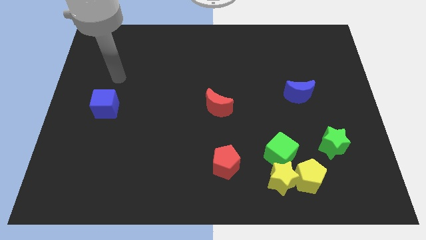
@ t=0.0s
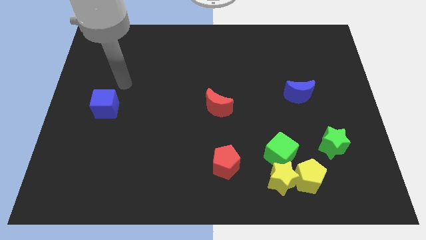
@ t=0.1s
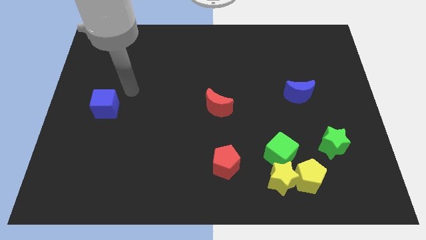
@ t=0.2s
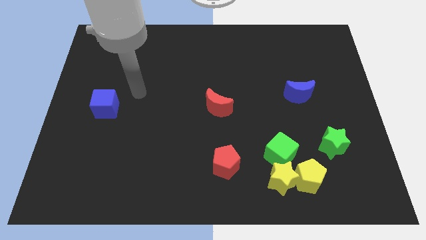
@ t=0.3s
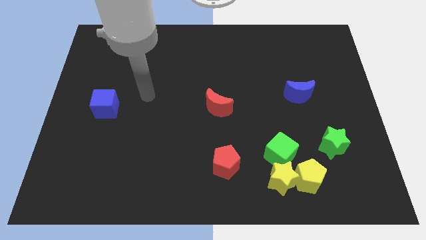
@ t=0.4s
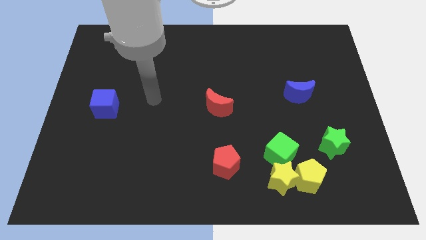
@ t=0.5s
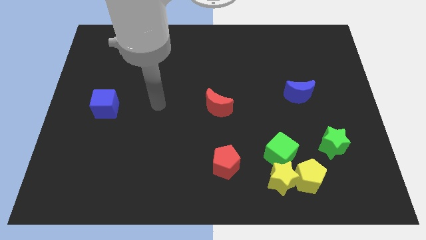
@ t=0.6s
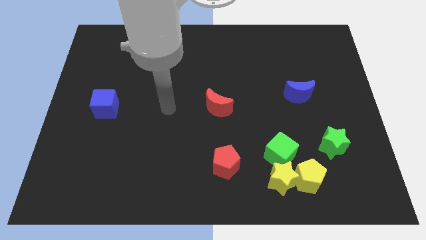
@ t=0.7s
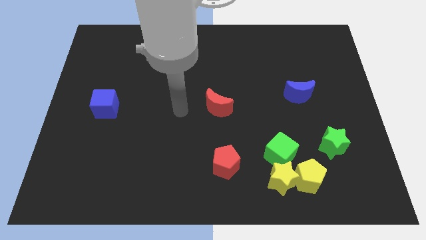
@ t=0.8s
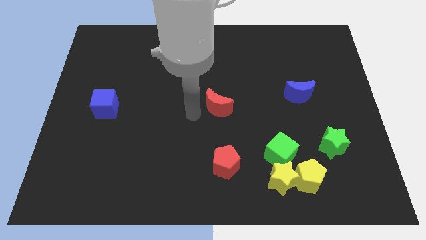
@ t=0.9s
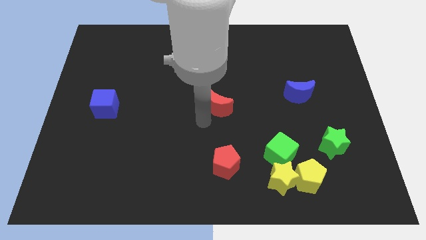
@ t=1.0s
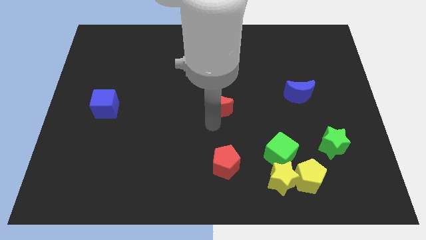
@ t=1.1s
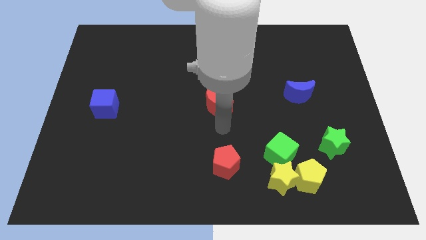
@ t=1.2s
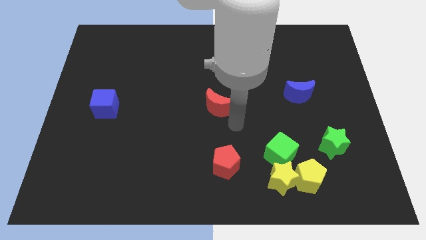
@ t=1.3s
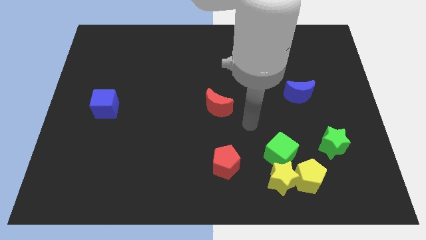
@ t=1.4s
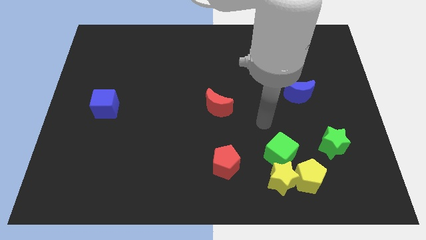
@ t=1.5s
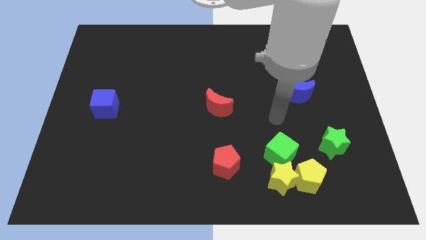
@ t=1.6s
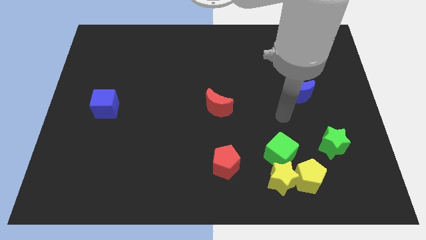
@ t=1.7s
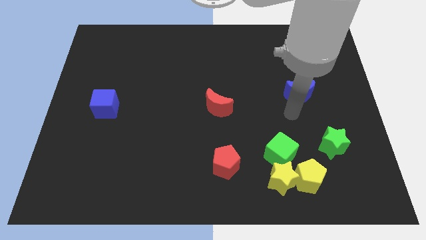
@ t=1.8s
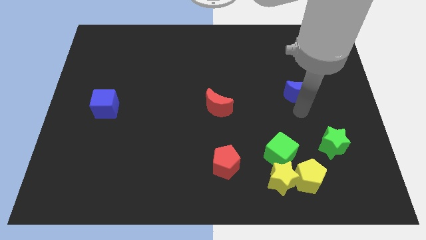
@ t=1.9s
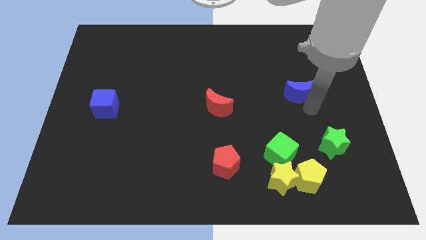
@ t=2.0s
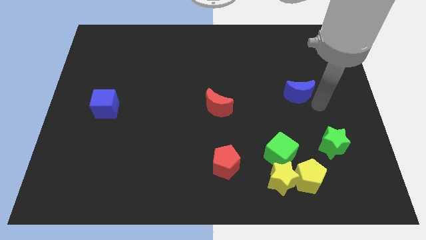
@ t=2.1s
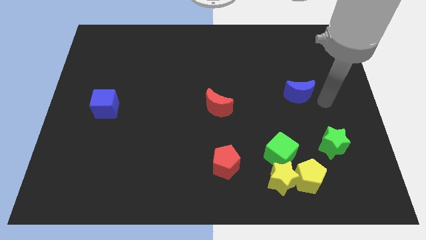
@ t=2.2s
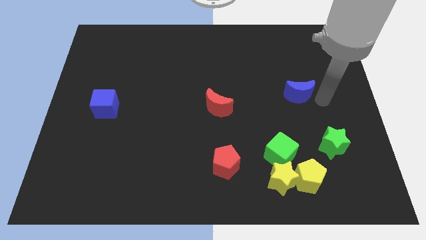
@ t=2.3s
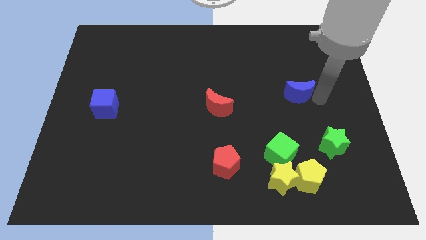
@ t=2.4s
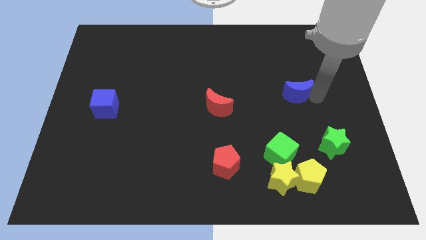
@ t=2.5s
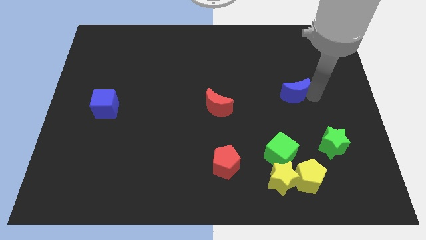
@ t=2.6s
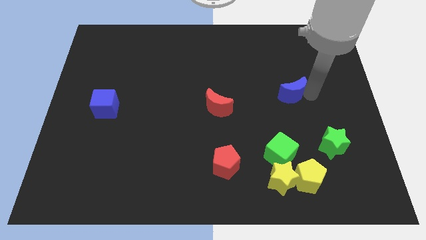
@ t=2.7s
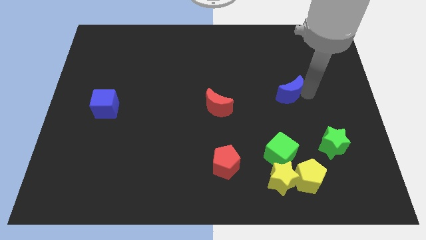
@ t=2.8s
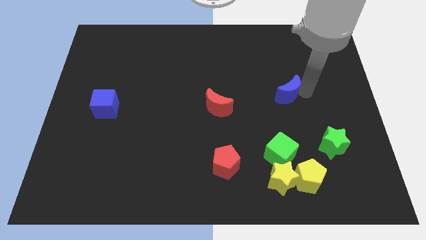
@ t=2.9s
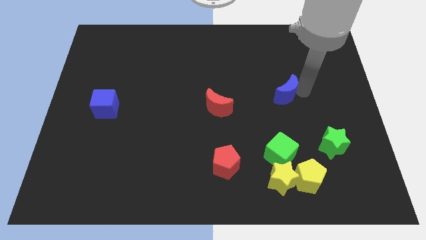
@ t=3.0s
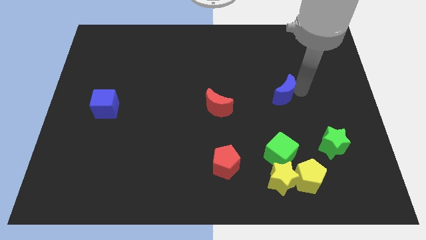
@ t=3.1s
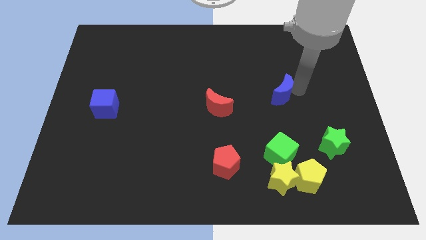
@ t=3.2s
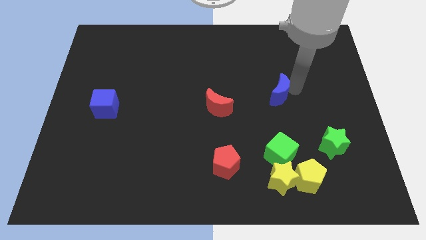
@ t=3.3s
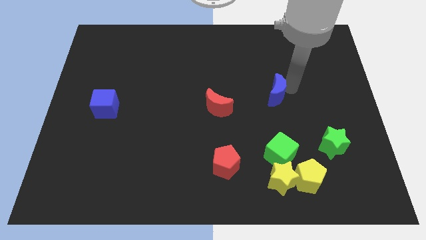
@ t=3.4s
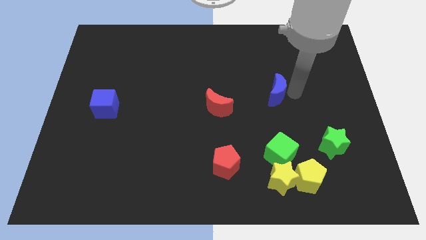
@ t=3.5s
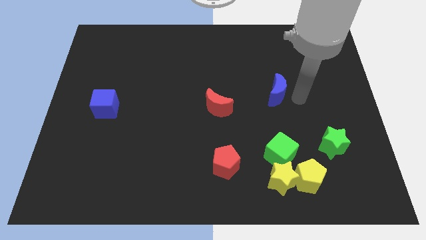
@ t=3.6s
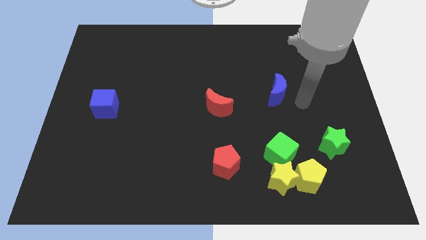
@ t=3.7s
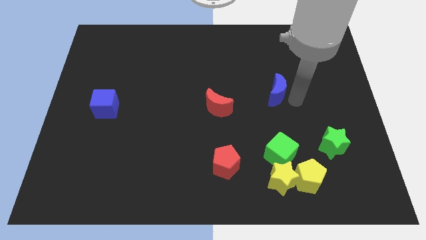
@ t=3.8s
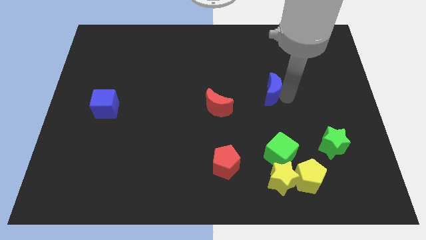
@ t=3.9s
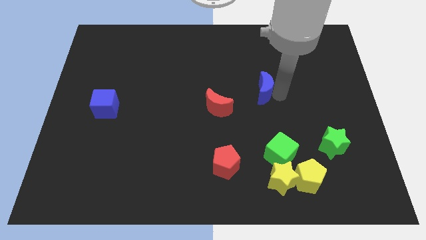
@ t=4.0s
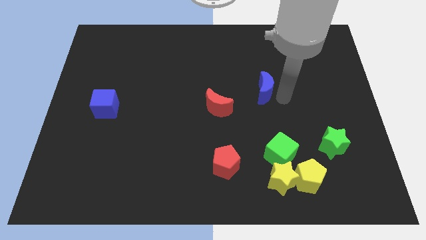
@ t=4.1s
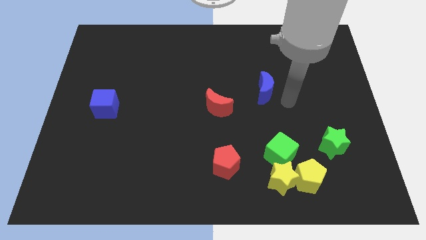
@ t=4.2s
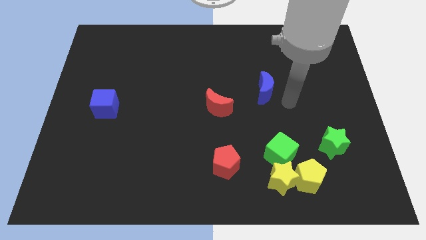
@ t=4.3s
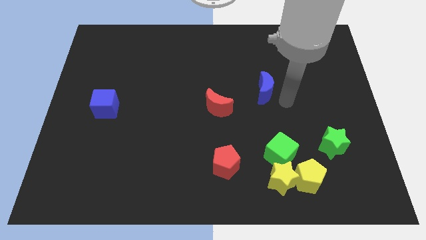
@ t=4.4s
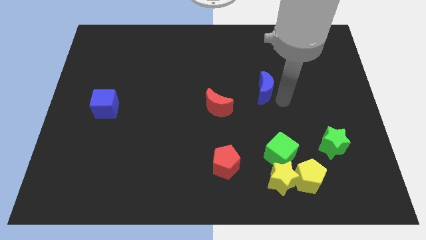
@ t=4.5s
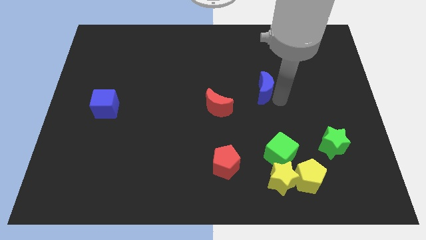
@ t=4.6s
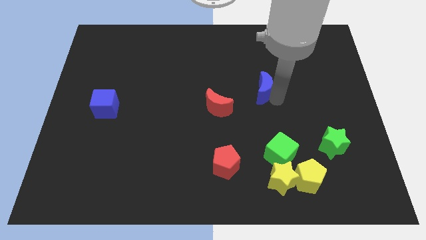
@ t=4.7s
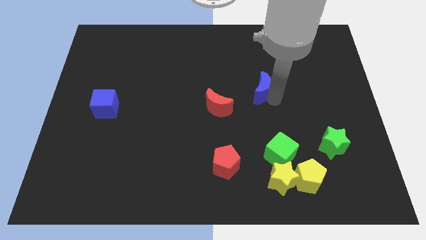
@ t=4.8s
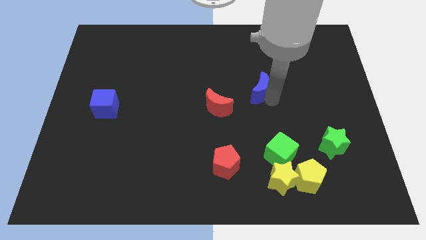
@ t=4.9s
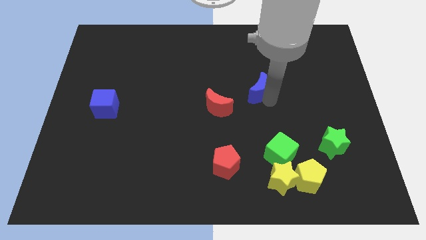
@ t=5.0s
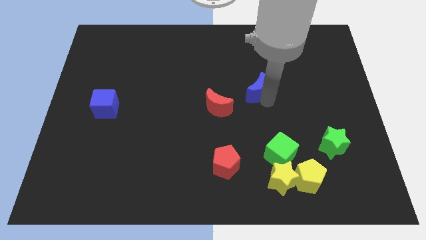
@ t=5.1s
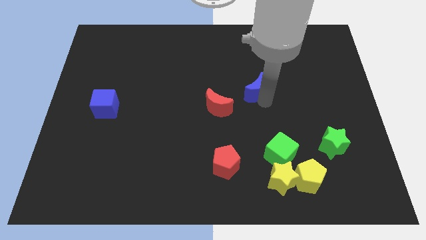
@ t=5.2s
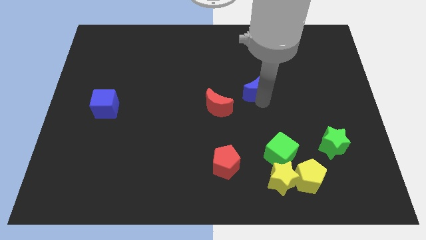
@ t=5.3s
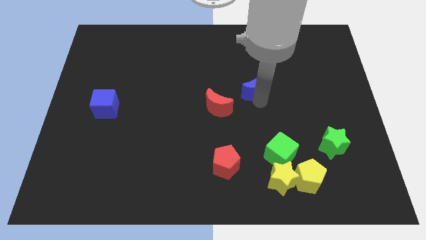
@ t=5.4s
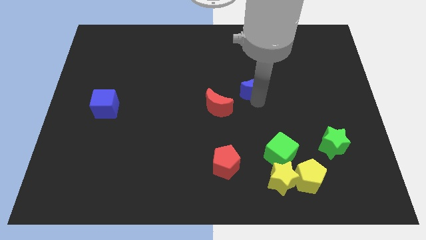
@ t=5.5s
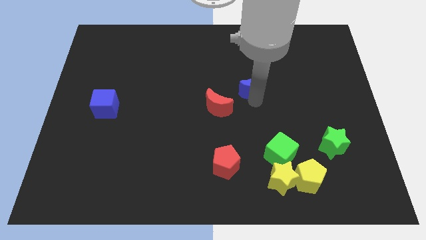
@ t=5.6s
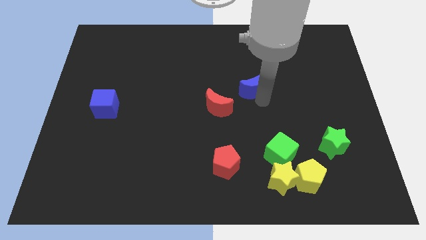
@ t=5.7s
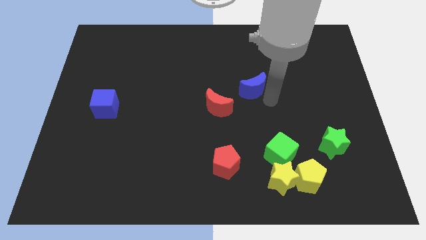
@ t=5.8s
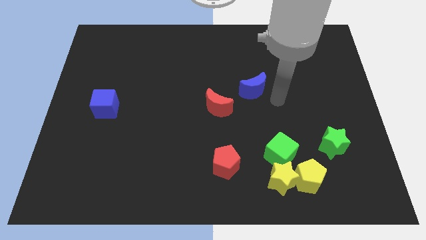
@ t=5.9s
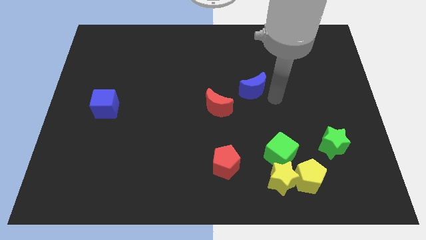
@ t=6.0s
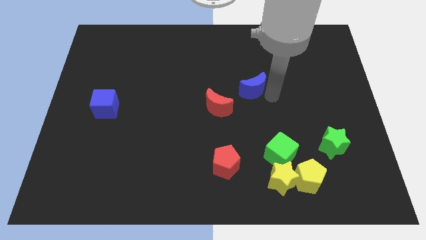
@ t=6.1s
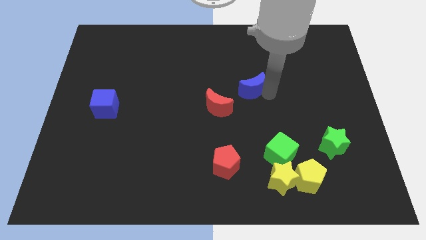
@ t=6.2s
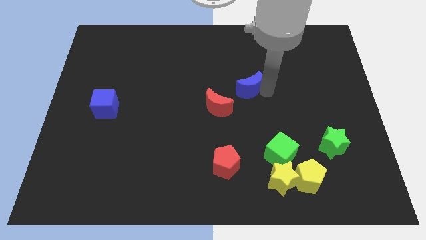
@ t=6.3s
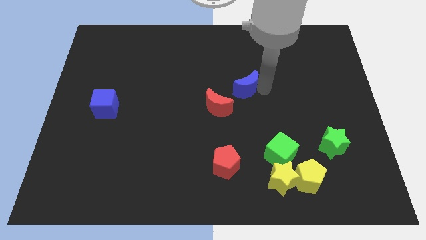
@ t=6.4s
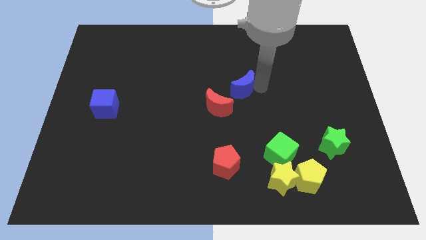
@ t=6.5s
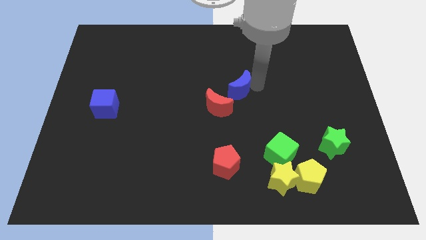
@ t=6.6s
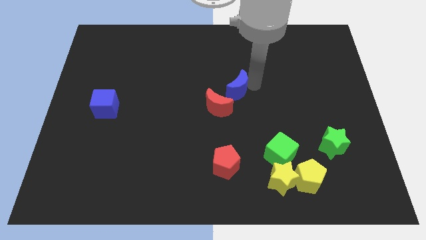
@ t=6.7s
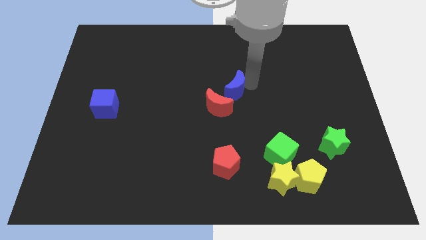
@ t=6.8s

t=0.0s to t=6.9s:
push the blue moon above the red moon
